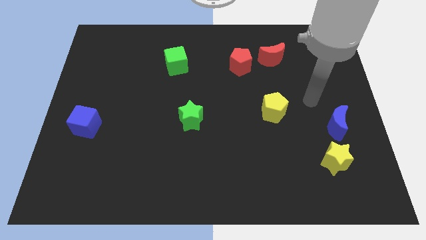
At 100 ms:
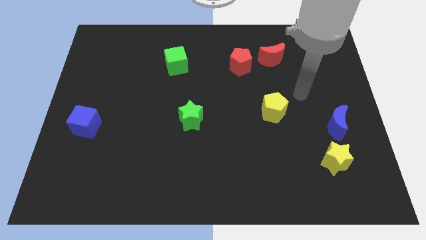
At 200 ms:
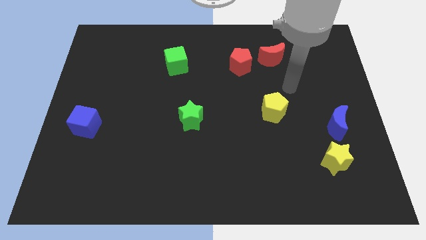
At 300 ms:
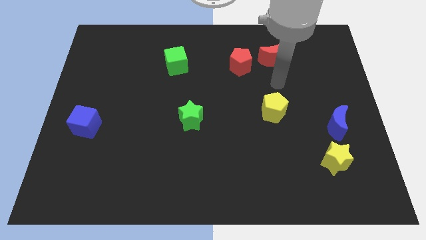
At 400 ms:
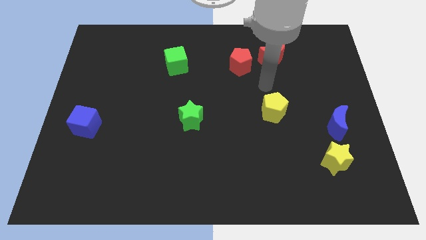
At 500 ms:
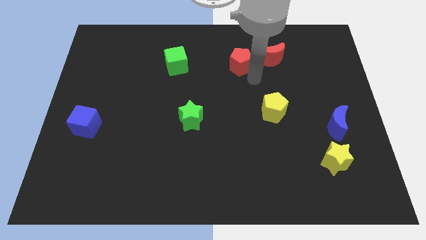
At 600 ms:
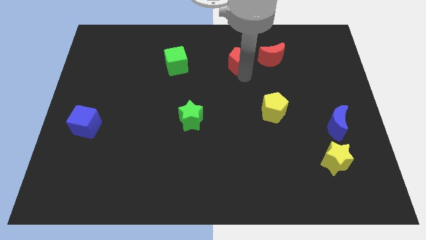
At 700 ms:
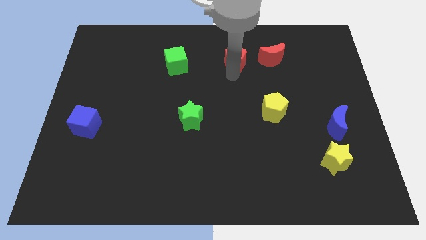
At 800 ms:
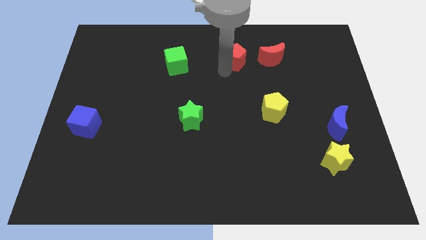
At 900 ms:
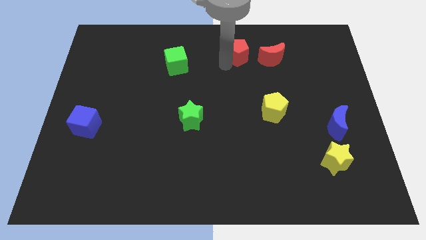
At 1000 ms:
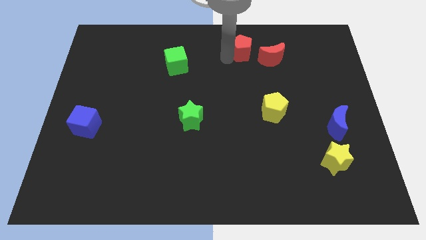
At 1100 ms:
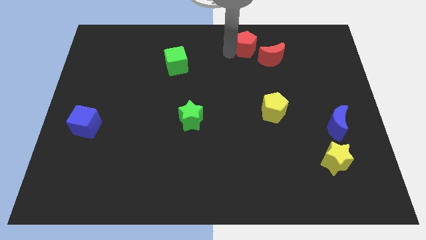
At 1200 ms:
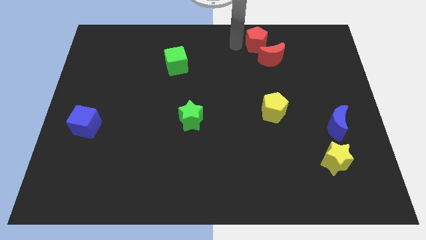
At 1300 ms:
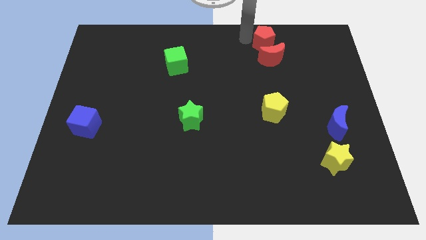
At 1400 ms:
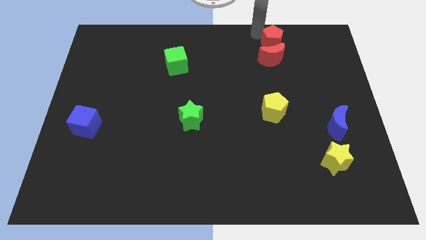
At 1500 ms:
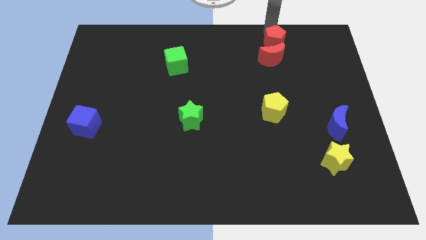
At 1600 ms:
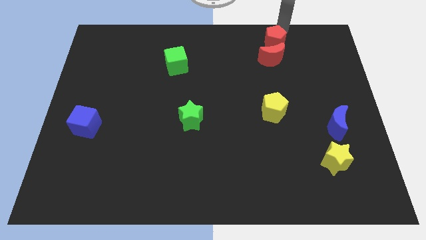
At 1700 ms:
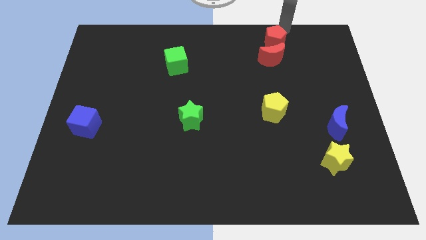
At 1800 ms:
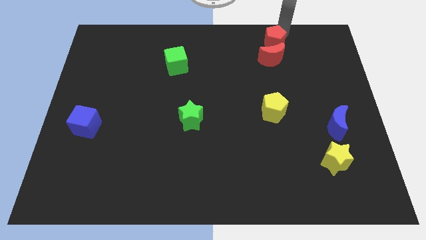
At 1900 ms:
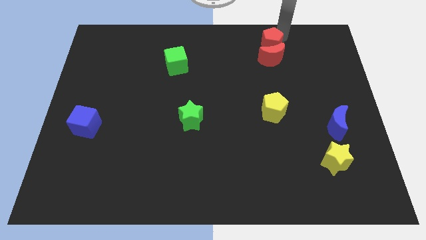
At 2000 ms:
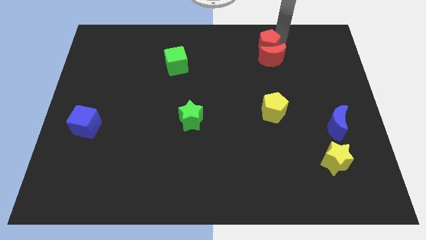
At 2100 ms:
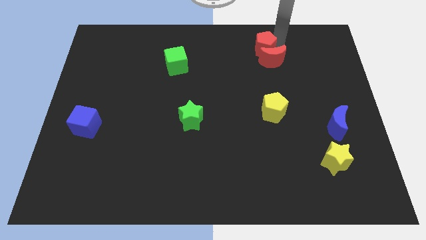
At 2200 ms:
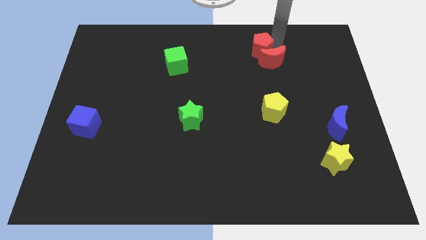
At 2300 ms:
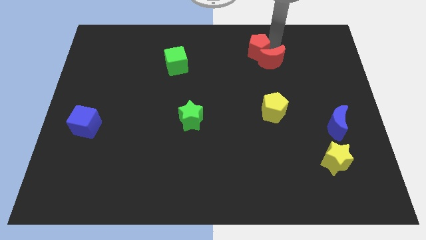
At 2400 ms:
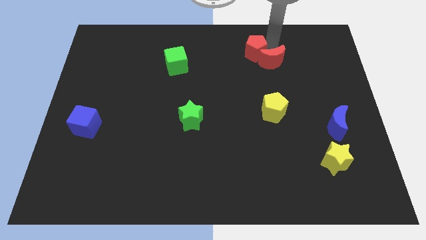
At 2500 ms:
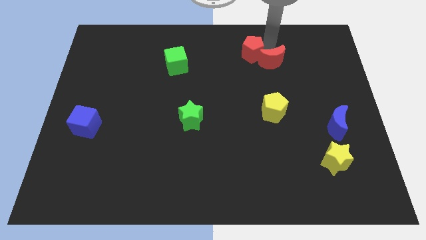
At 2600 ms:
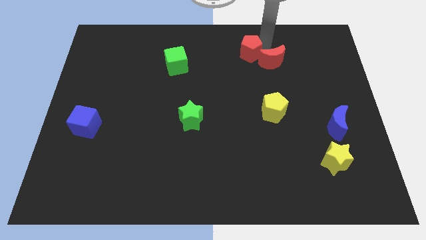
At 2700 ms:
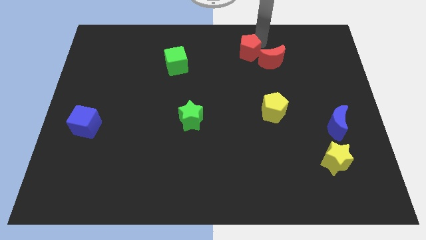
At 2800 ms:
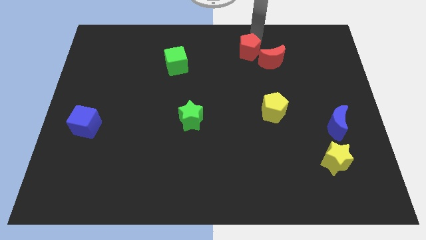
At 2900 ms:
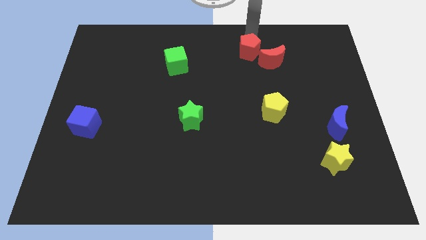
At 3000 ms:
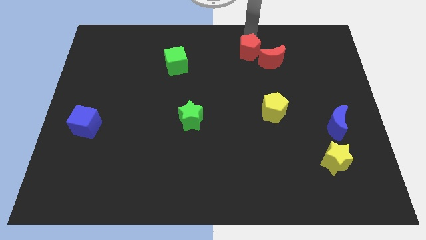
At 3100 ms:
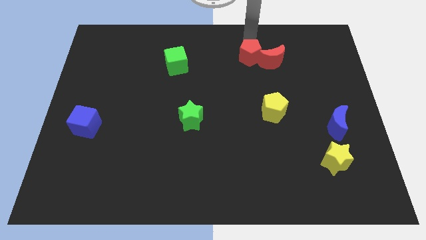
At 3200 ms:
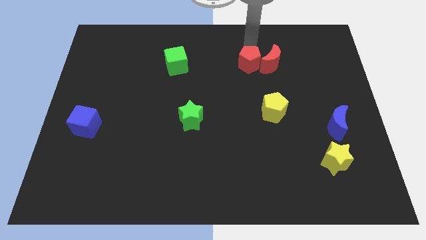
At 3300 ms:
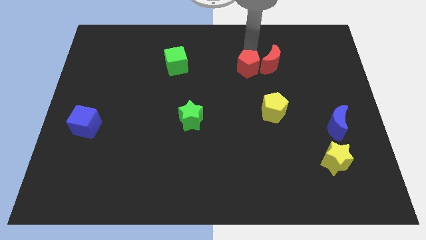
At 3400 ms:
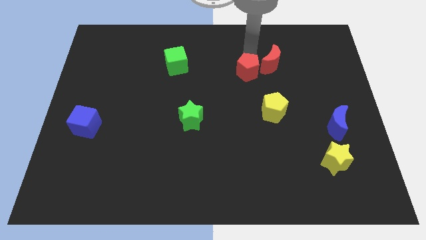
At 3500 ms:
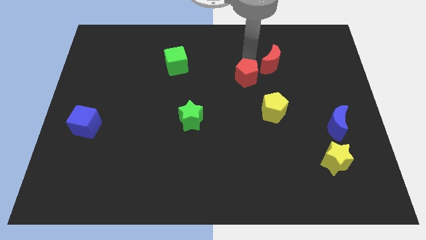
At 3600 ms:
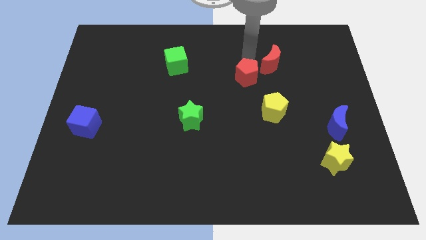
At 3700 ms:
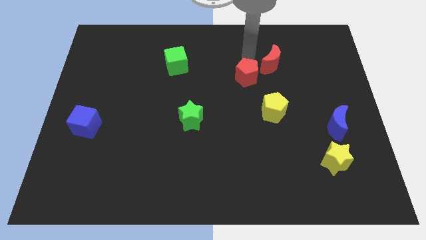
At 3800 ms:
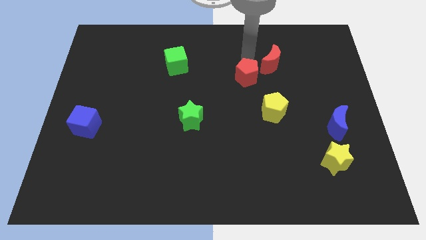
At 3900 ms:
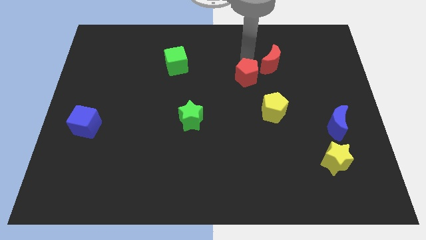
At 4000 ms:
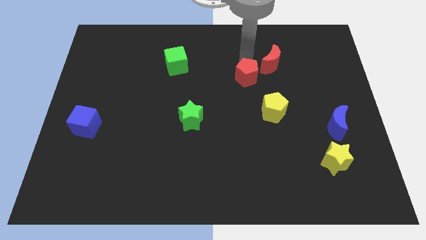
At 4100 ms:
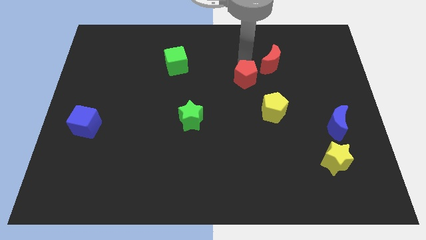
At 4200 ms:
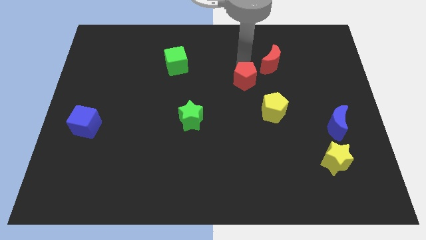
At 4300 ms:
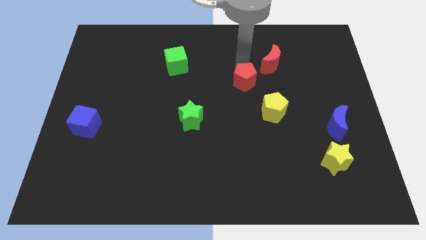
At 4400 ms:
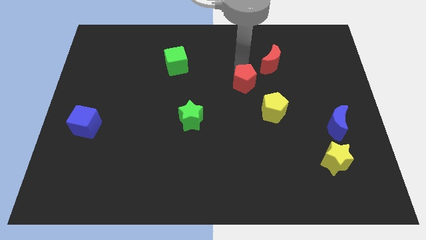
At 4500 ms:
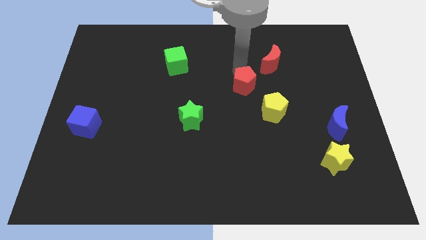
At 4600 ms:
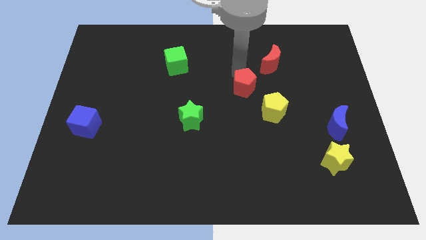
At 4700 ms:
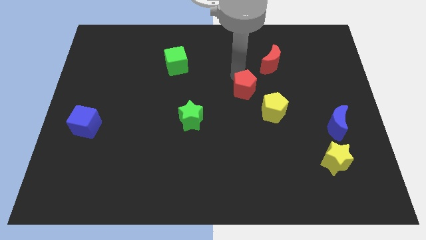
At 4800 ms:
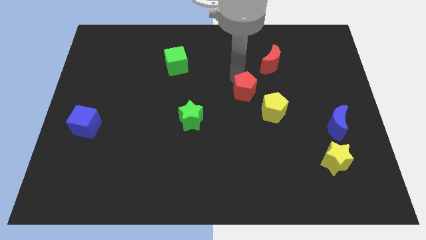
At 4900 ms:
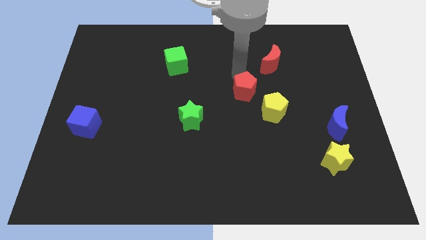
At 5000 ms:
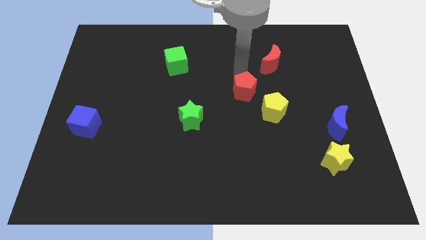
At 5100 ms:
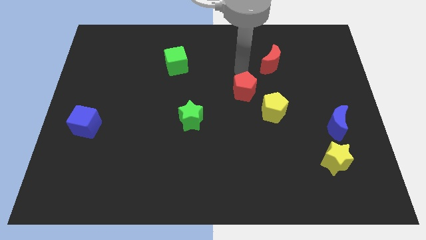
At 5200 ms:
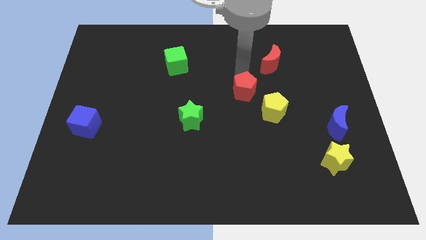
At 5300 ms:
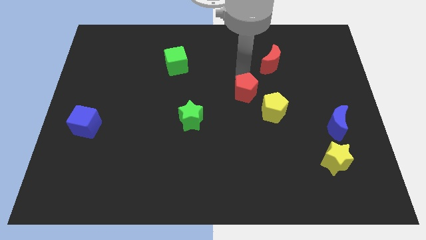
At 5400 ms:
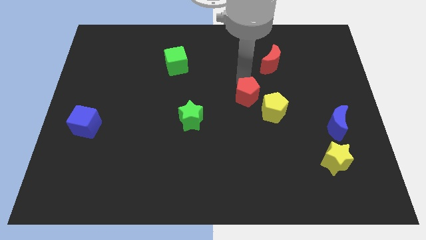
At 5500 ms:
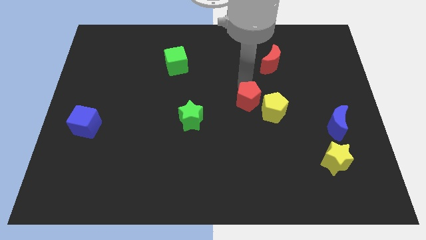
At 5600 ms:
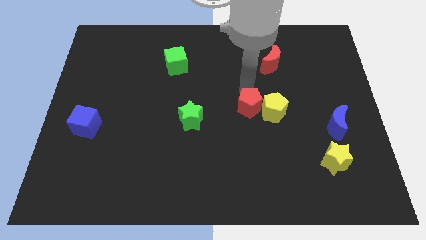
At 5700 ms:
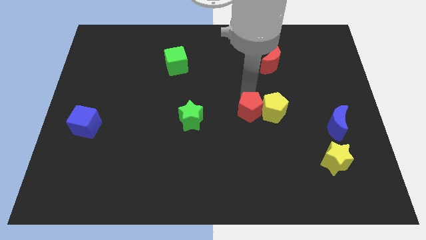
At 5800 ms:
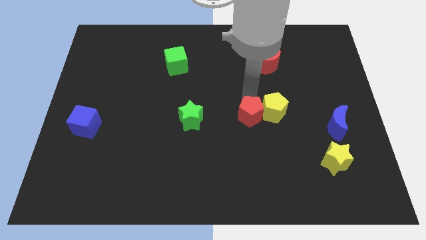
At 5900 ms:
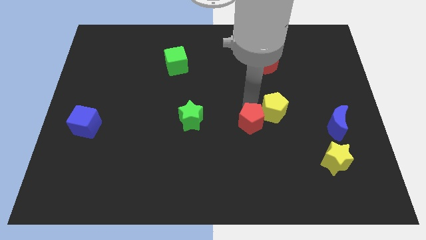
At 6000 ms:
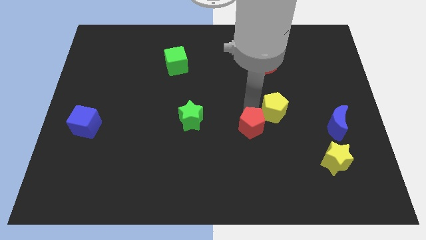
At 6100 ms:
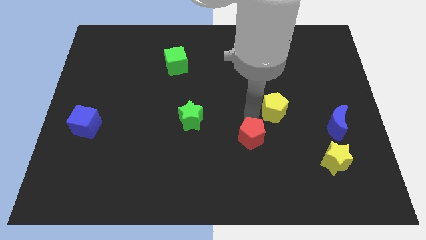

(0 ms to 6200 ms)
push the red pentagon downwards

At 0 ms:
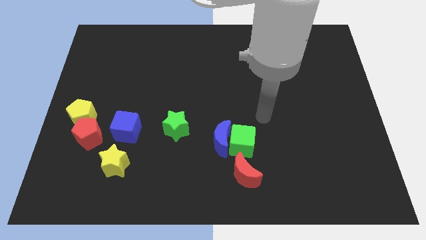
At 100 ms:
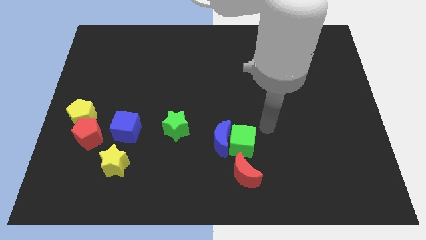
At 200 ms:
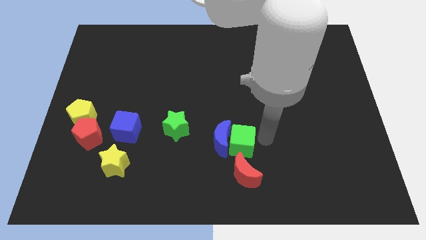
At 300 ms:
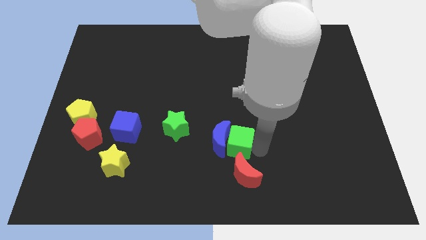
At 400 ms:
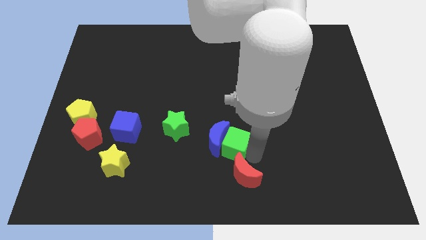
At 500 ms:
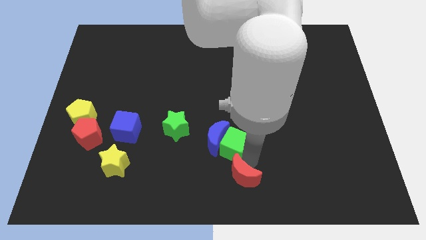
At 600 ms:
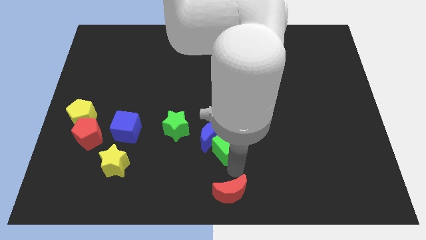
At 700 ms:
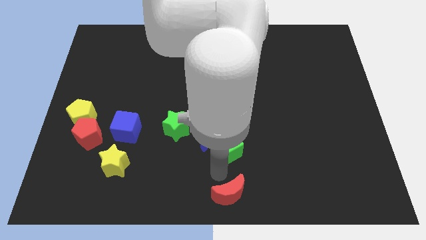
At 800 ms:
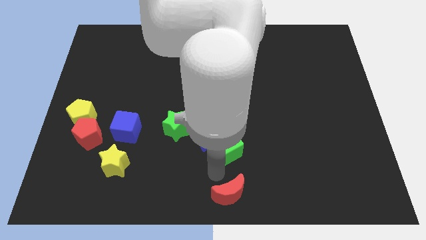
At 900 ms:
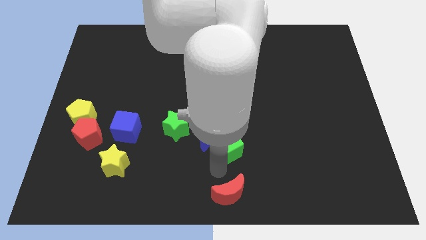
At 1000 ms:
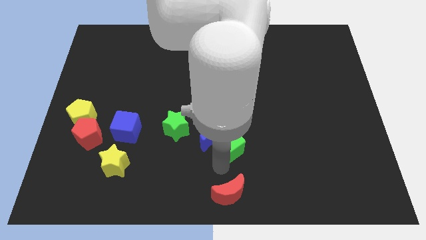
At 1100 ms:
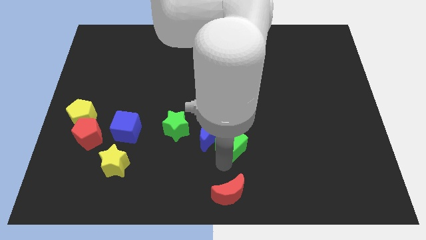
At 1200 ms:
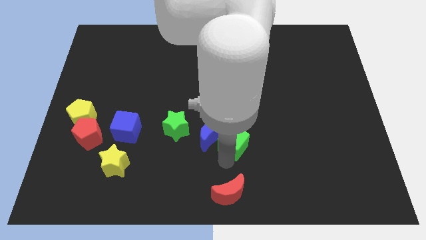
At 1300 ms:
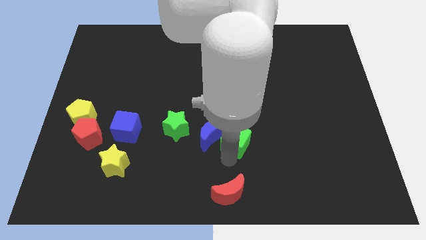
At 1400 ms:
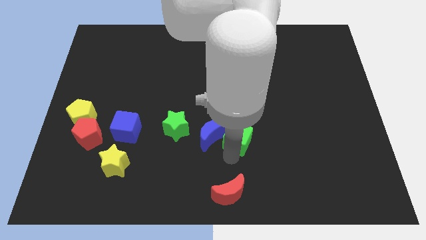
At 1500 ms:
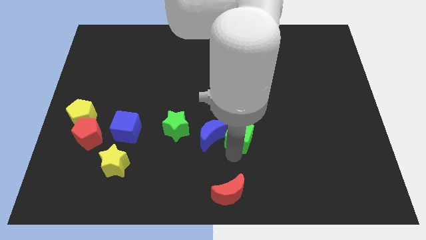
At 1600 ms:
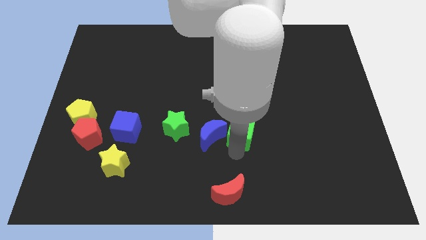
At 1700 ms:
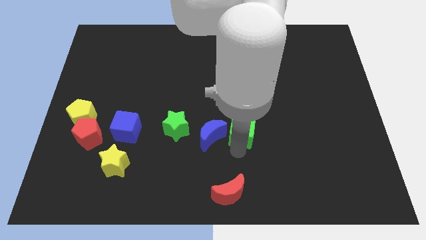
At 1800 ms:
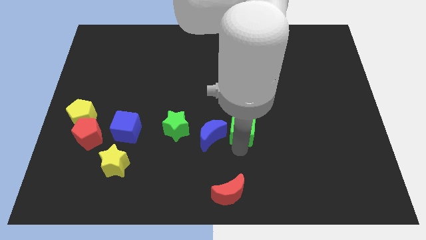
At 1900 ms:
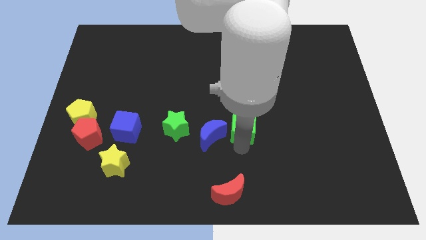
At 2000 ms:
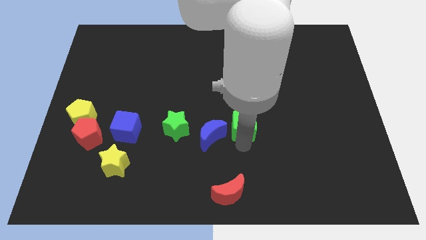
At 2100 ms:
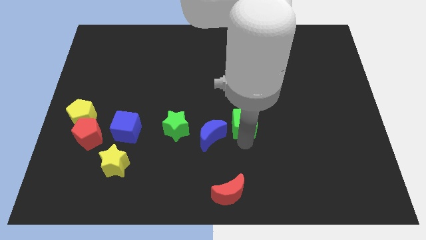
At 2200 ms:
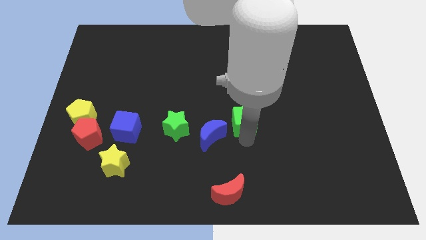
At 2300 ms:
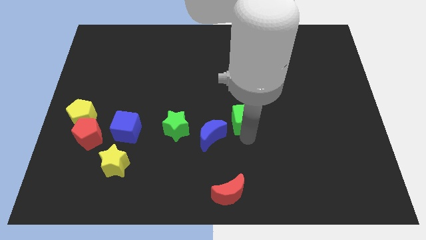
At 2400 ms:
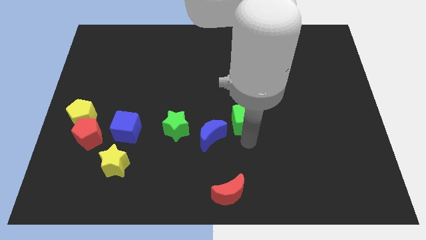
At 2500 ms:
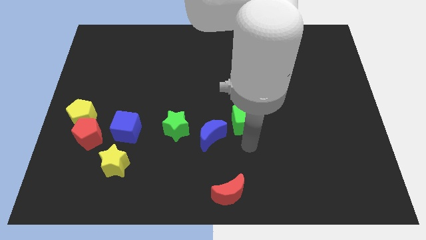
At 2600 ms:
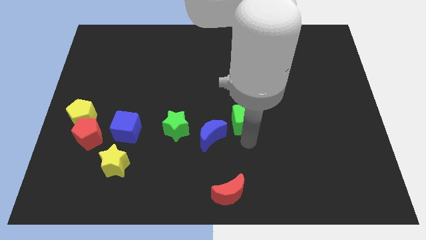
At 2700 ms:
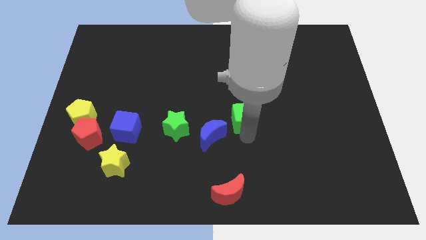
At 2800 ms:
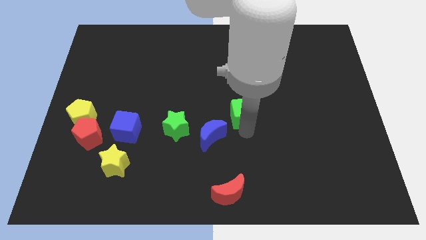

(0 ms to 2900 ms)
slightly push the green cube up
